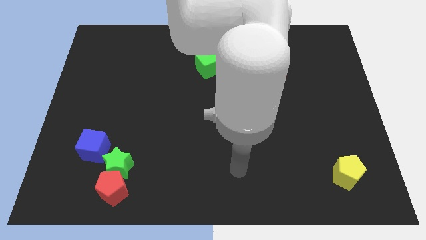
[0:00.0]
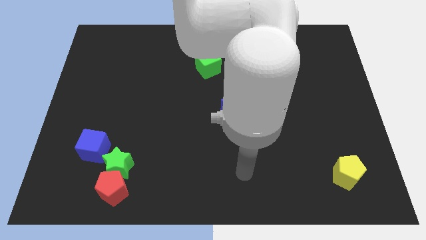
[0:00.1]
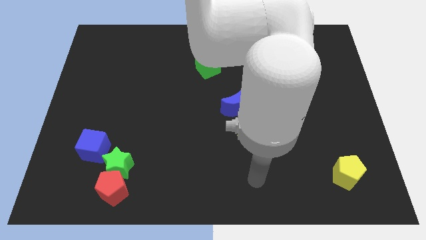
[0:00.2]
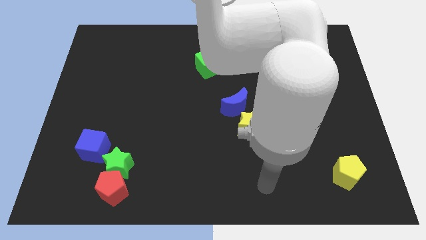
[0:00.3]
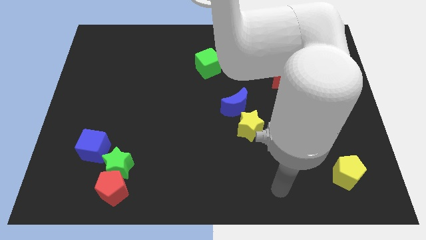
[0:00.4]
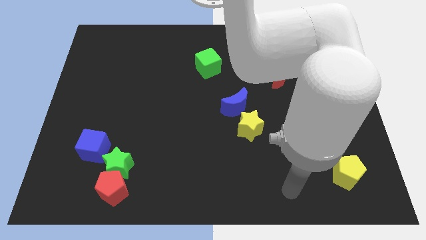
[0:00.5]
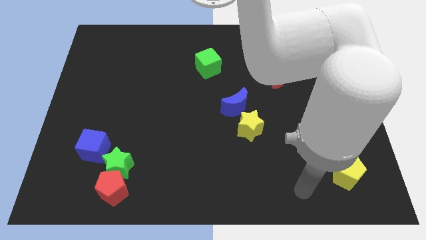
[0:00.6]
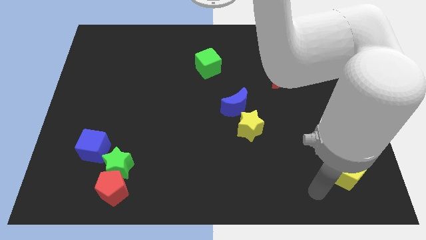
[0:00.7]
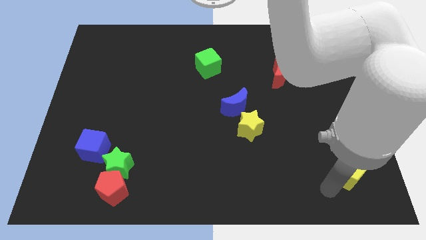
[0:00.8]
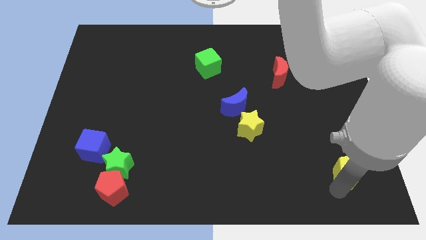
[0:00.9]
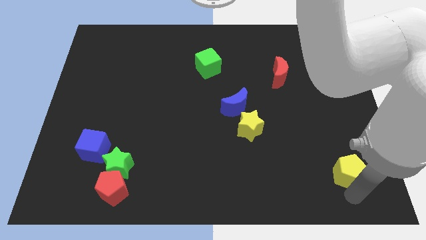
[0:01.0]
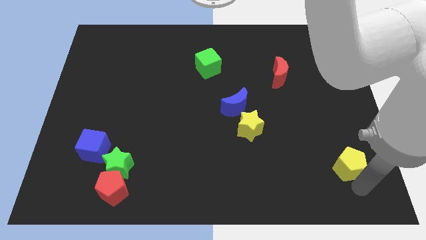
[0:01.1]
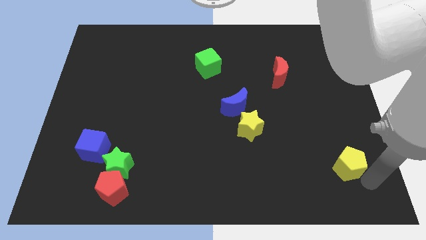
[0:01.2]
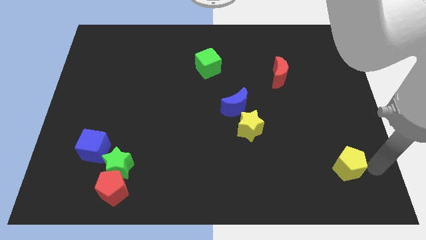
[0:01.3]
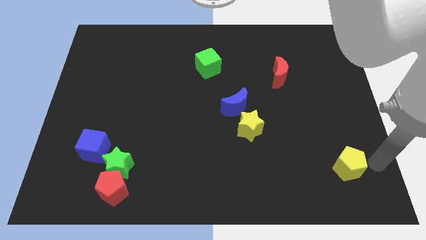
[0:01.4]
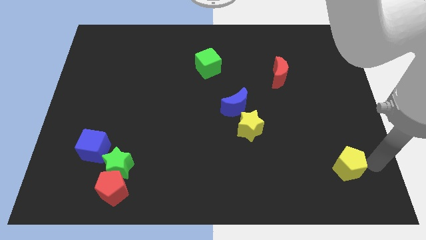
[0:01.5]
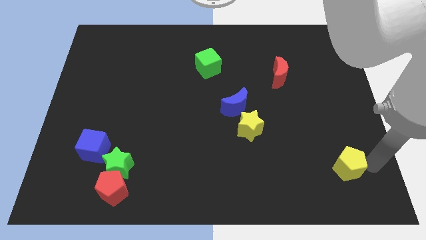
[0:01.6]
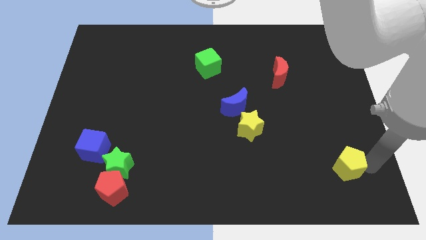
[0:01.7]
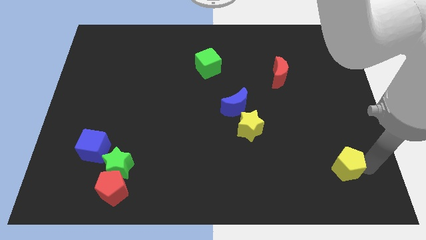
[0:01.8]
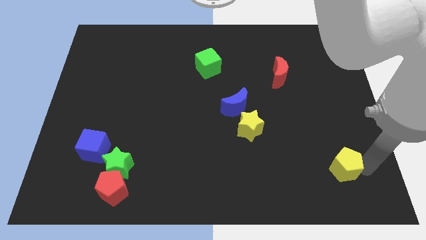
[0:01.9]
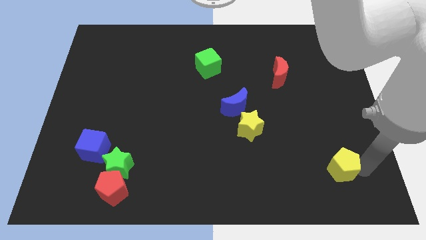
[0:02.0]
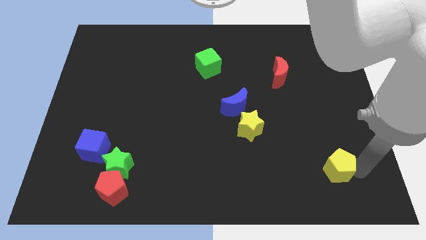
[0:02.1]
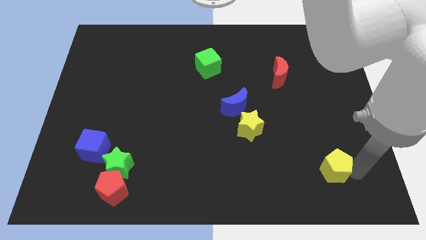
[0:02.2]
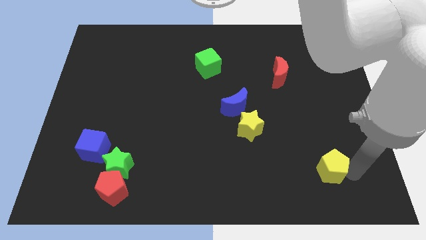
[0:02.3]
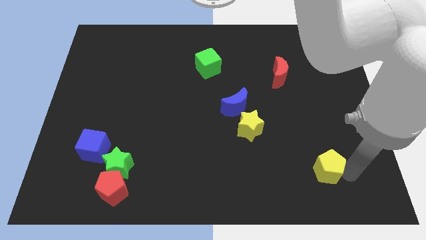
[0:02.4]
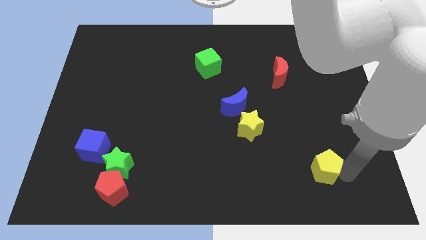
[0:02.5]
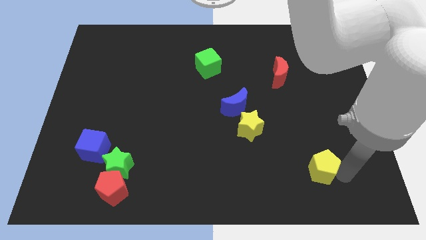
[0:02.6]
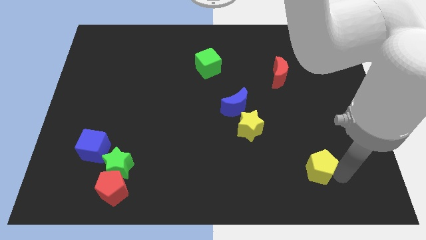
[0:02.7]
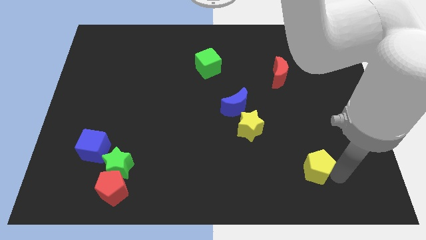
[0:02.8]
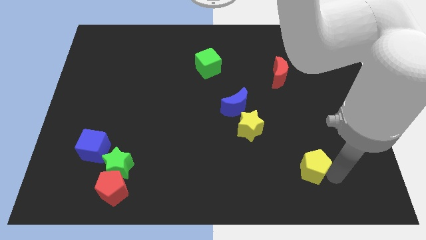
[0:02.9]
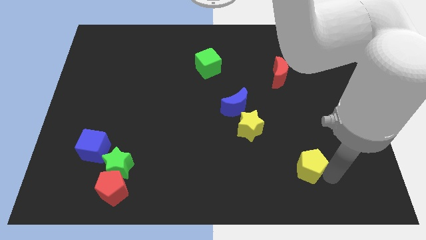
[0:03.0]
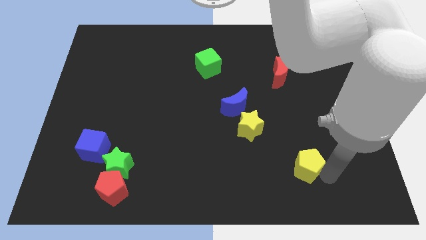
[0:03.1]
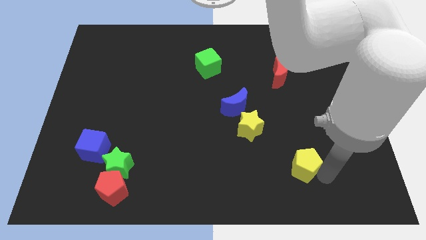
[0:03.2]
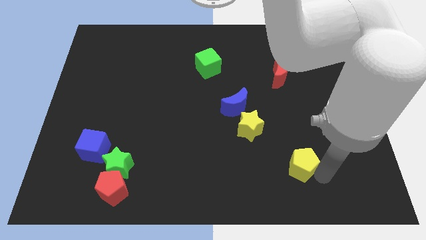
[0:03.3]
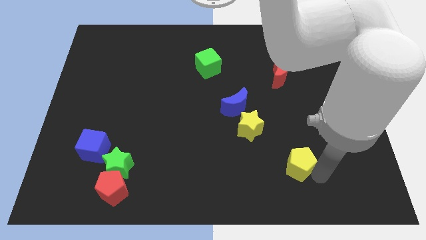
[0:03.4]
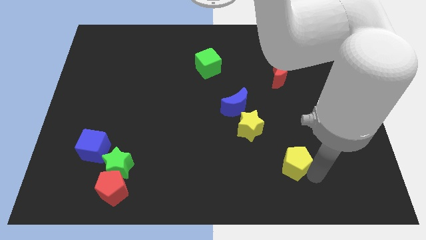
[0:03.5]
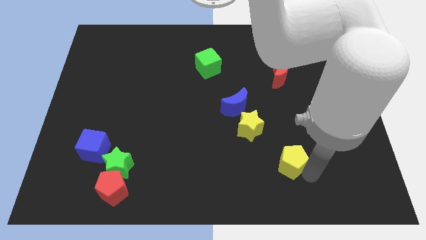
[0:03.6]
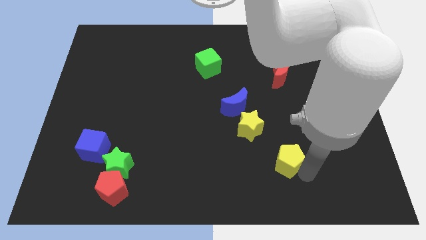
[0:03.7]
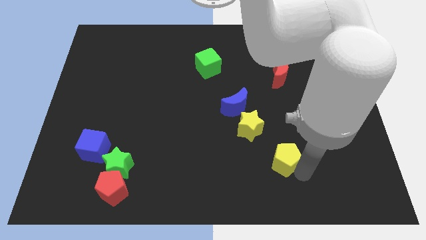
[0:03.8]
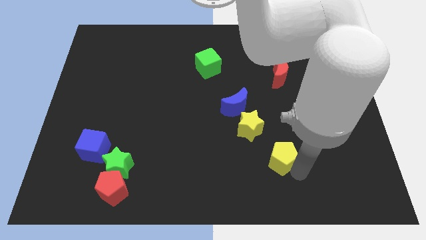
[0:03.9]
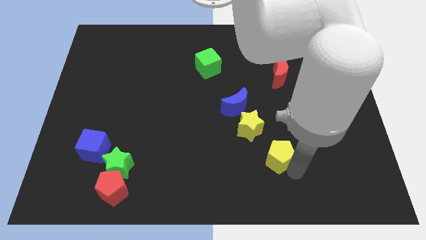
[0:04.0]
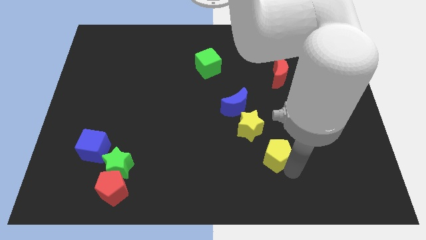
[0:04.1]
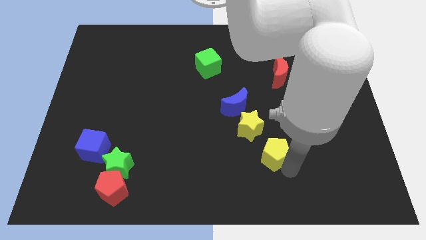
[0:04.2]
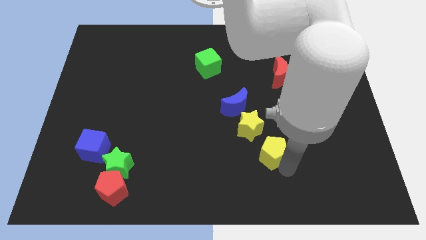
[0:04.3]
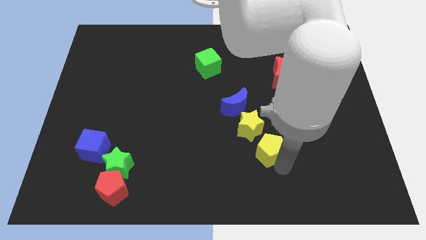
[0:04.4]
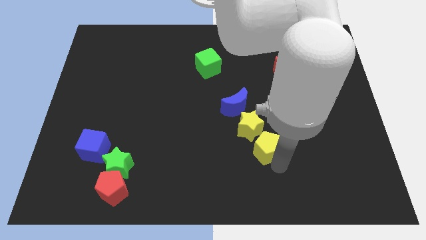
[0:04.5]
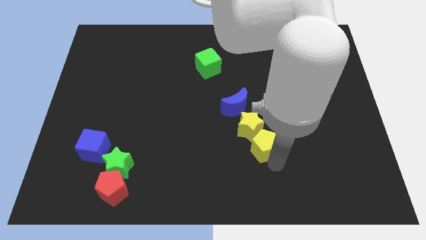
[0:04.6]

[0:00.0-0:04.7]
put the yellow pentagon towards the yellow star

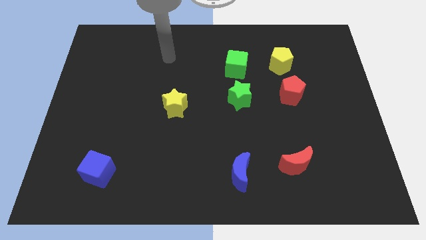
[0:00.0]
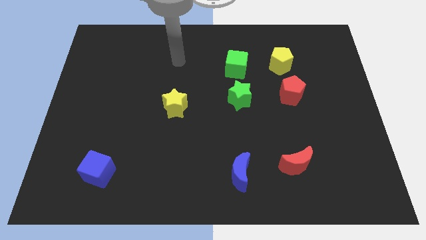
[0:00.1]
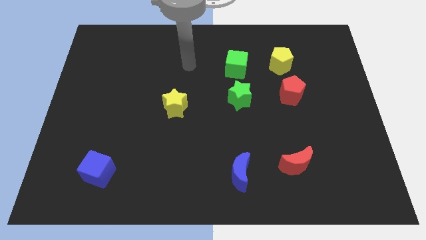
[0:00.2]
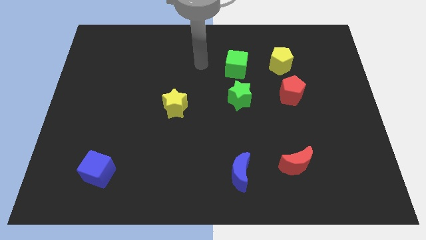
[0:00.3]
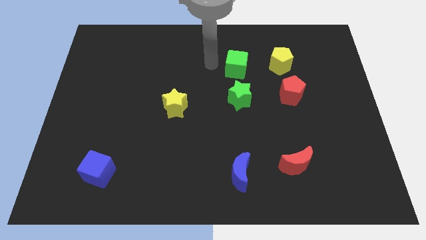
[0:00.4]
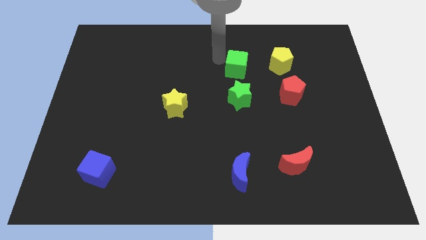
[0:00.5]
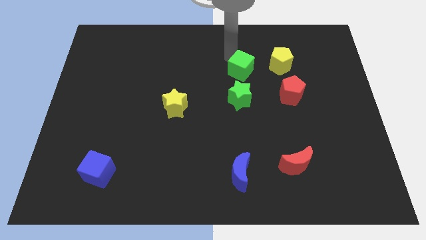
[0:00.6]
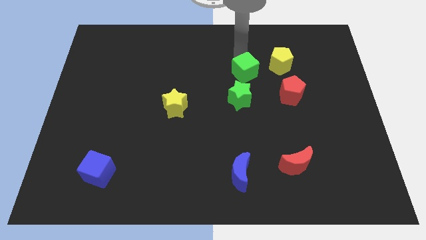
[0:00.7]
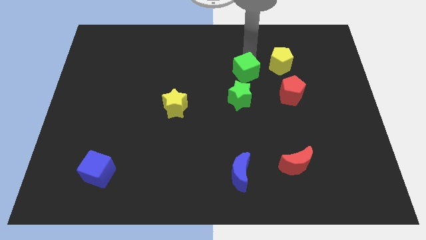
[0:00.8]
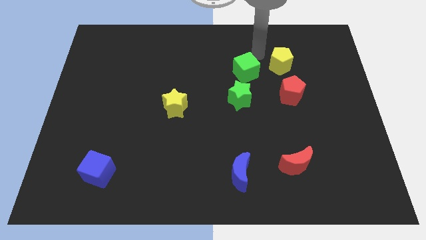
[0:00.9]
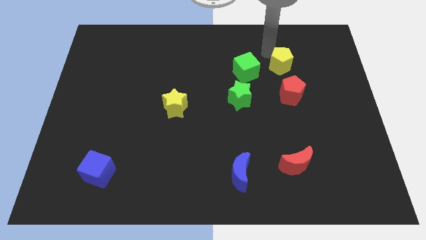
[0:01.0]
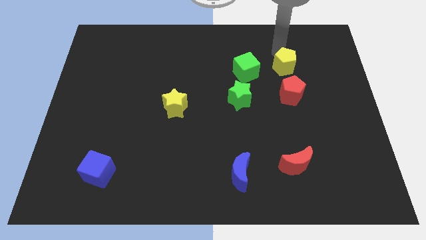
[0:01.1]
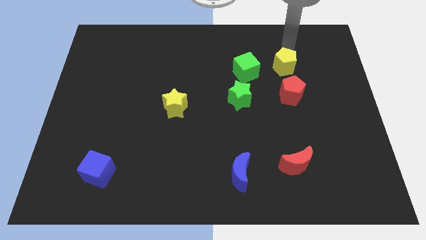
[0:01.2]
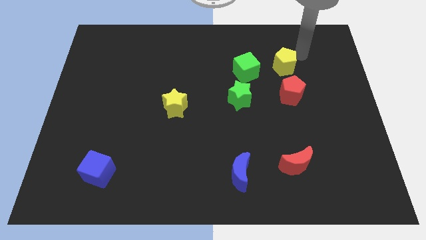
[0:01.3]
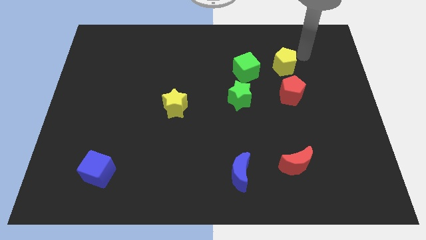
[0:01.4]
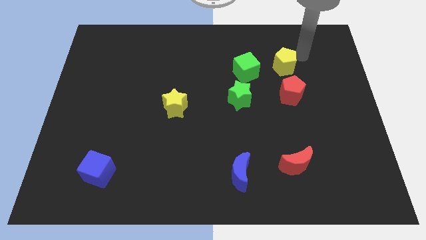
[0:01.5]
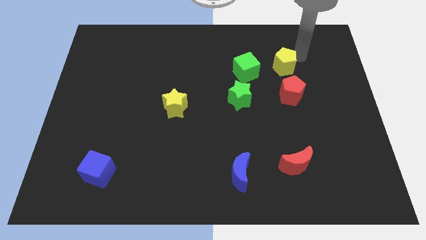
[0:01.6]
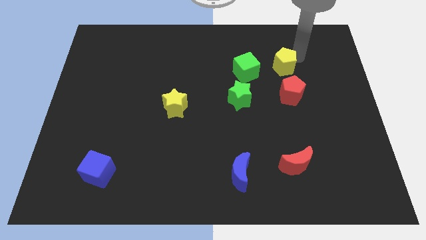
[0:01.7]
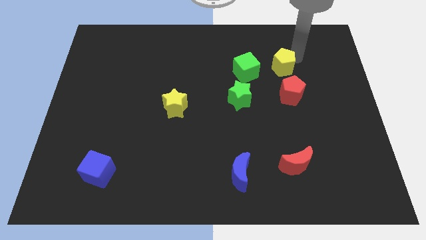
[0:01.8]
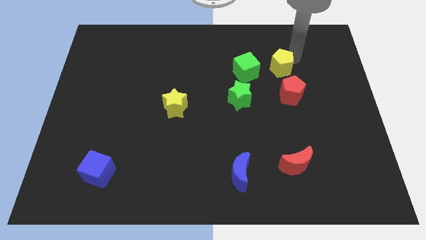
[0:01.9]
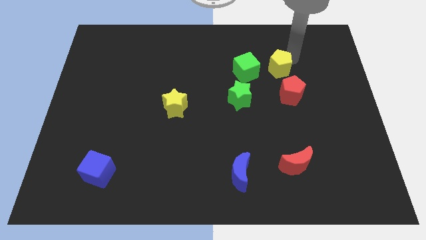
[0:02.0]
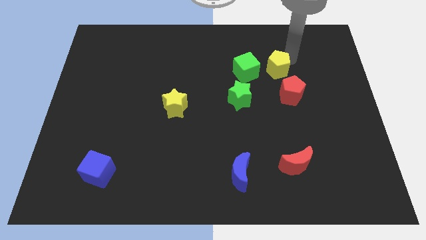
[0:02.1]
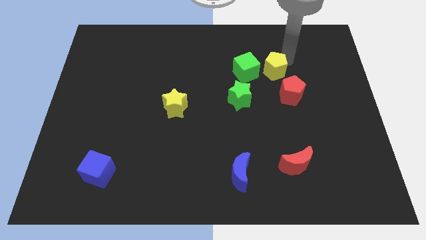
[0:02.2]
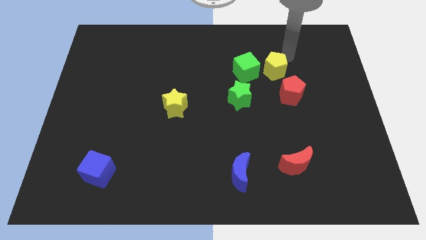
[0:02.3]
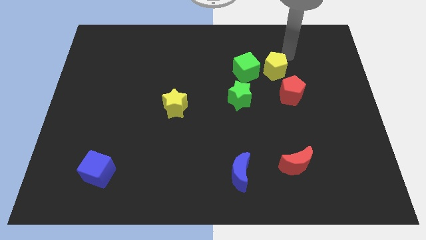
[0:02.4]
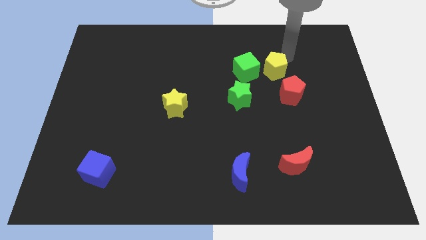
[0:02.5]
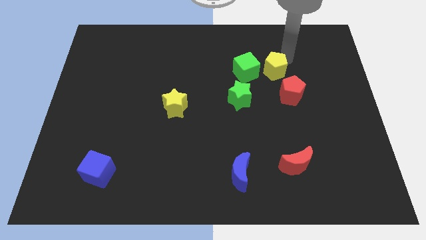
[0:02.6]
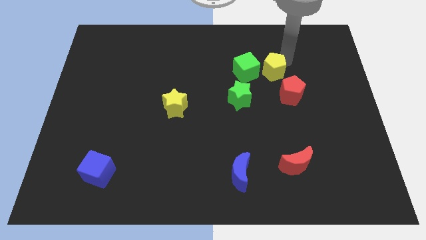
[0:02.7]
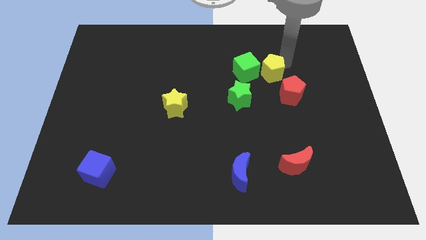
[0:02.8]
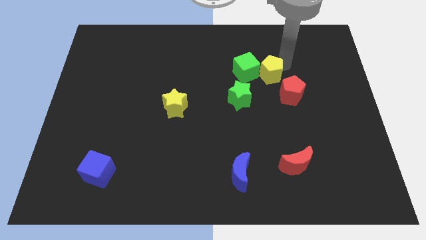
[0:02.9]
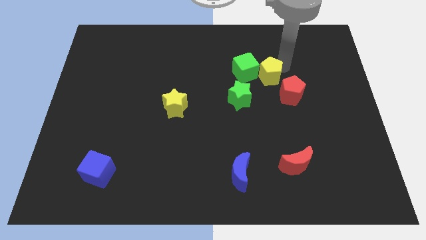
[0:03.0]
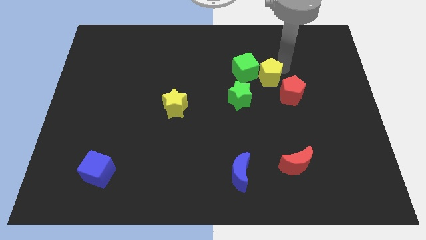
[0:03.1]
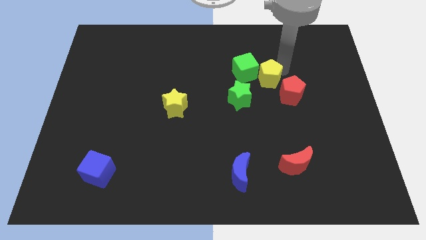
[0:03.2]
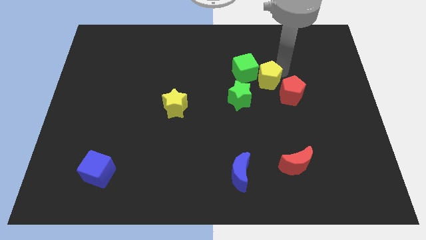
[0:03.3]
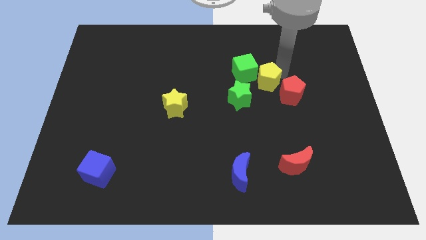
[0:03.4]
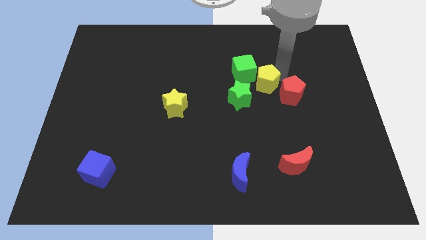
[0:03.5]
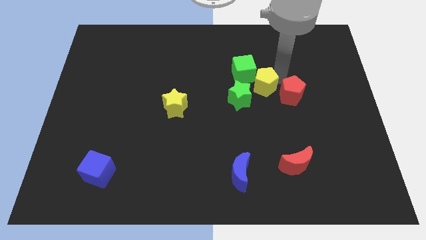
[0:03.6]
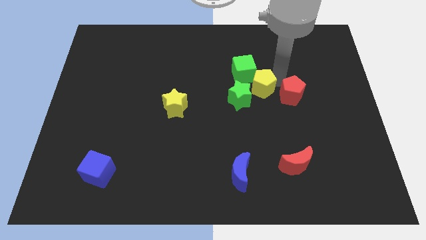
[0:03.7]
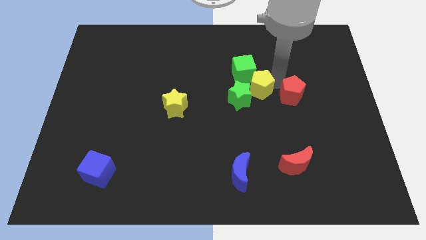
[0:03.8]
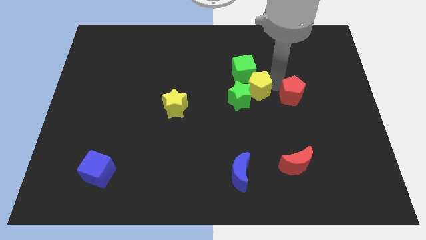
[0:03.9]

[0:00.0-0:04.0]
slide the yellow pentagon to the green star
